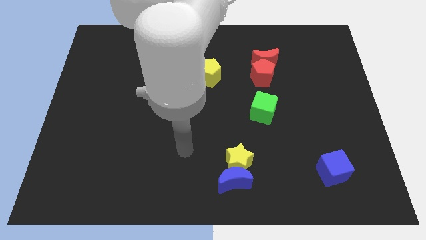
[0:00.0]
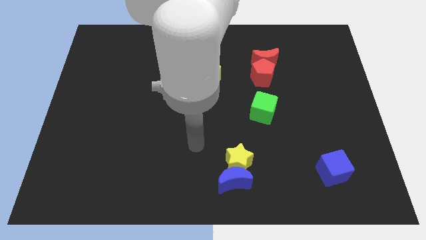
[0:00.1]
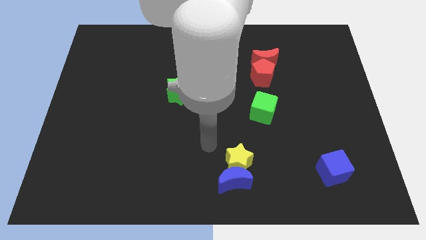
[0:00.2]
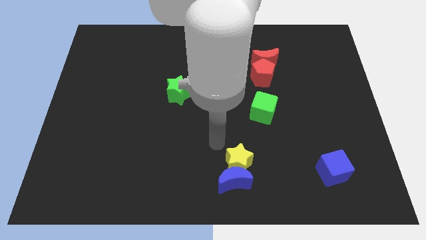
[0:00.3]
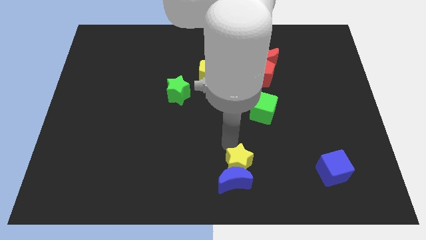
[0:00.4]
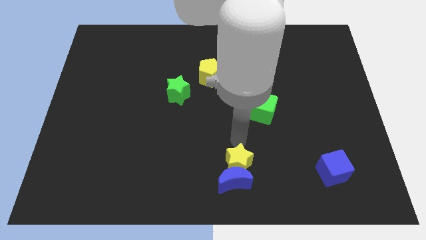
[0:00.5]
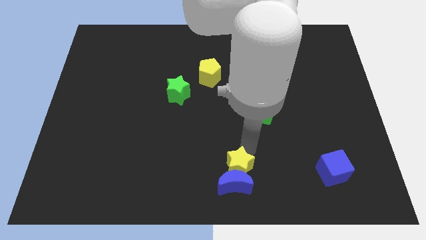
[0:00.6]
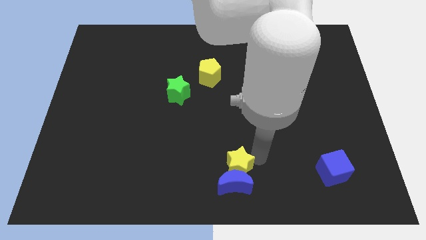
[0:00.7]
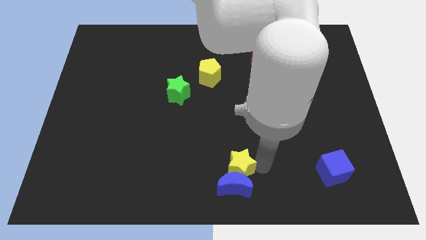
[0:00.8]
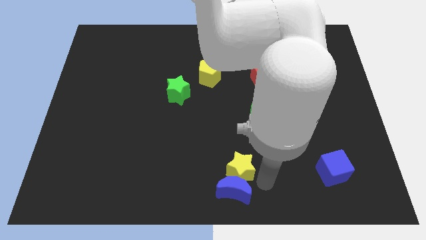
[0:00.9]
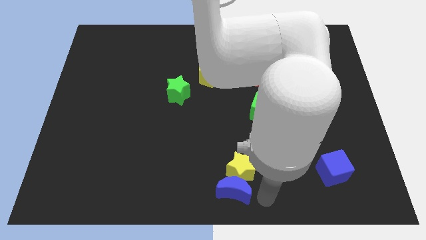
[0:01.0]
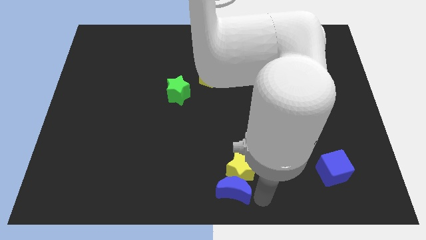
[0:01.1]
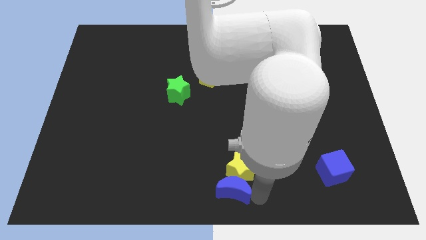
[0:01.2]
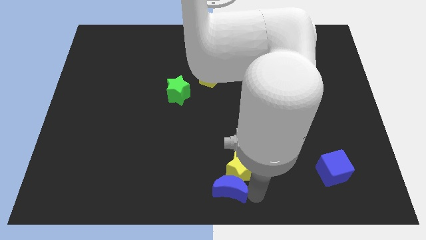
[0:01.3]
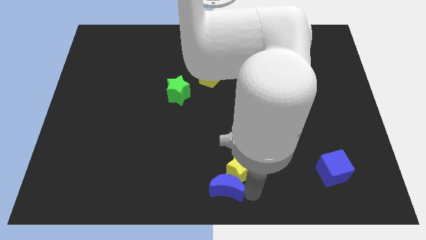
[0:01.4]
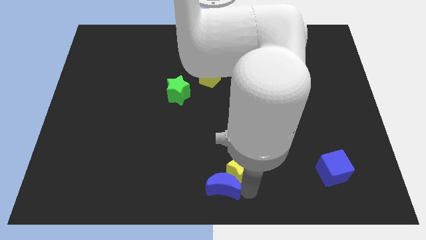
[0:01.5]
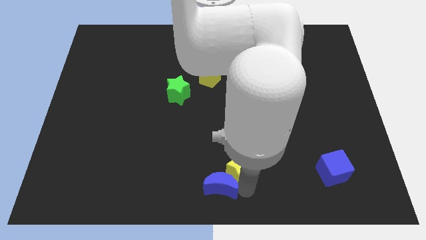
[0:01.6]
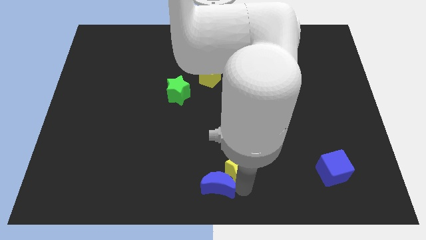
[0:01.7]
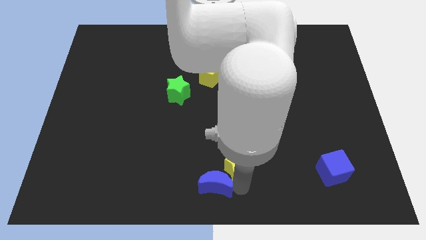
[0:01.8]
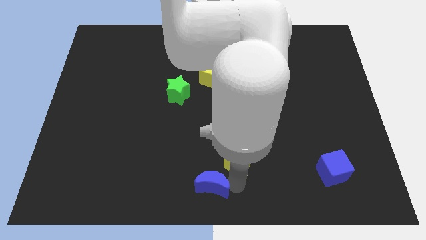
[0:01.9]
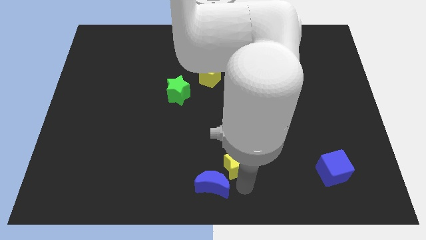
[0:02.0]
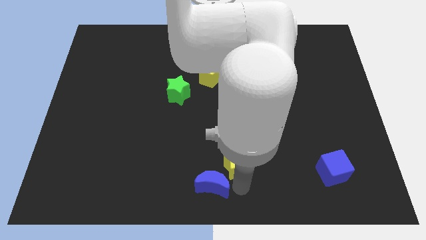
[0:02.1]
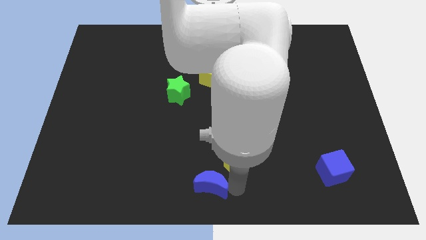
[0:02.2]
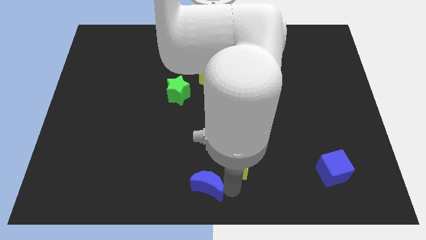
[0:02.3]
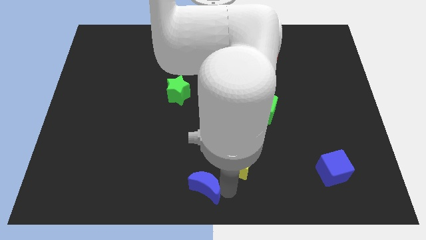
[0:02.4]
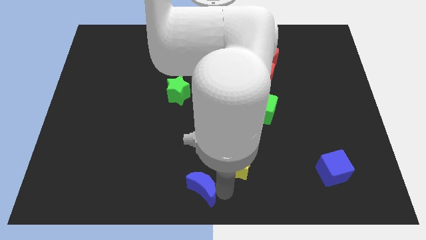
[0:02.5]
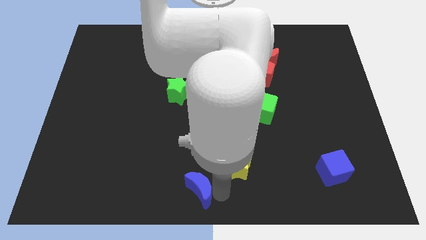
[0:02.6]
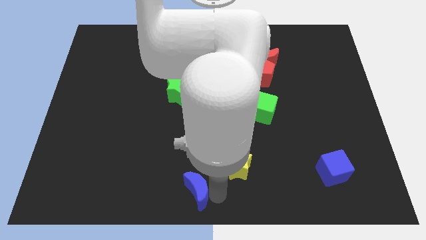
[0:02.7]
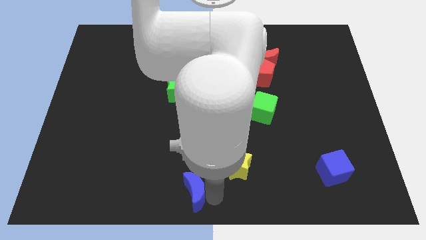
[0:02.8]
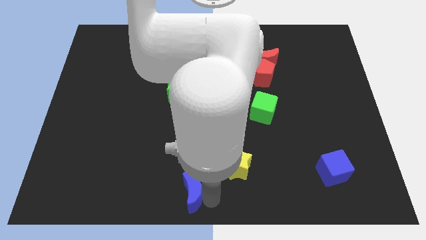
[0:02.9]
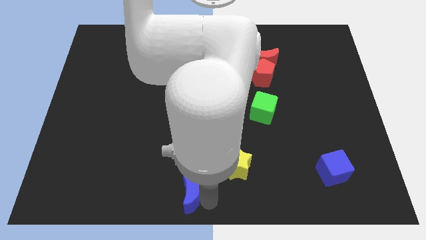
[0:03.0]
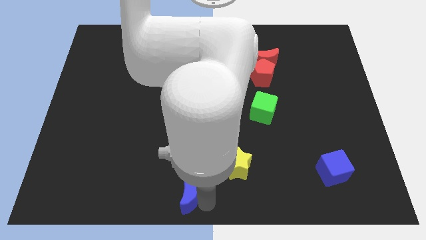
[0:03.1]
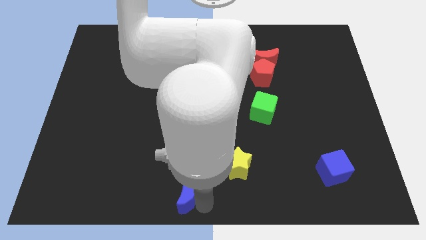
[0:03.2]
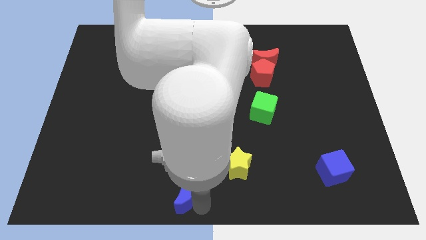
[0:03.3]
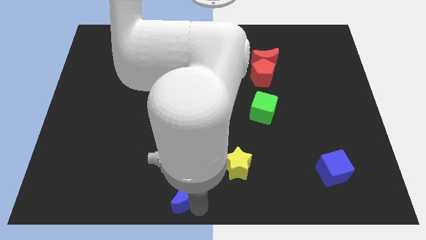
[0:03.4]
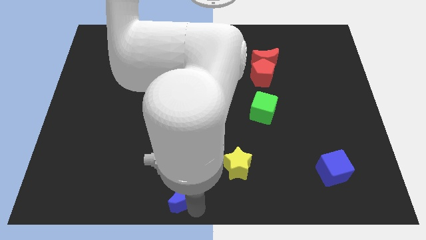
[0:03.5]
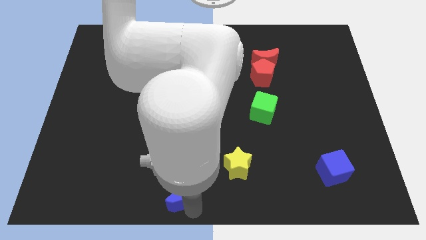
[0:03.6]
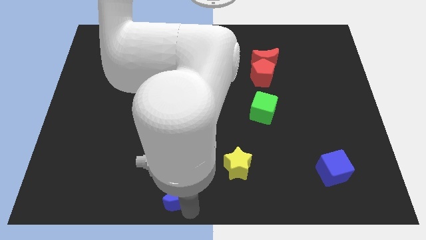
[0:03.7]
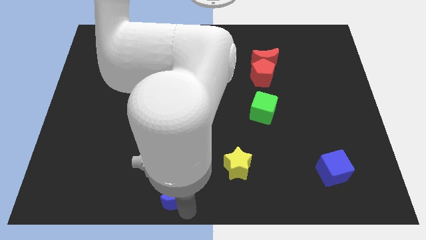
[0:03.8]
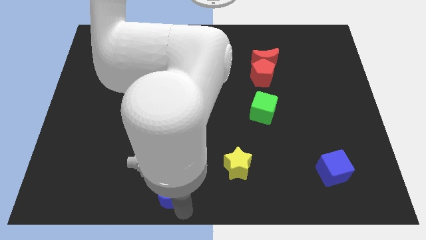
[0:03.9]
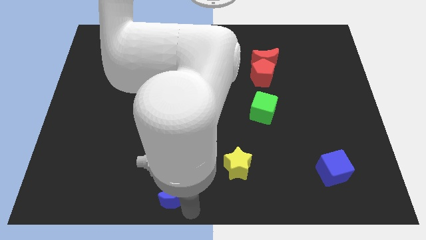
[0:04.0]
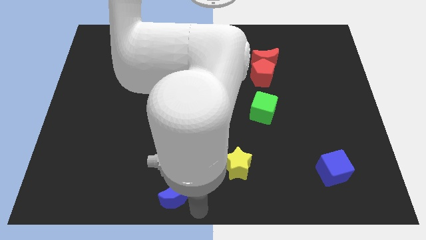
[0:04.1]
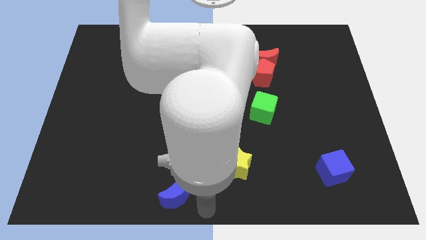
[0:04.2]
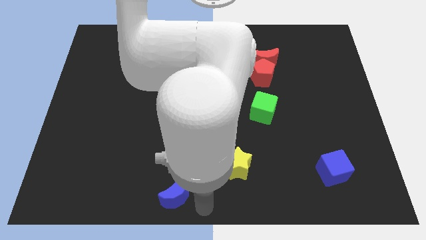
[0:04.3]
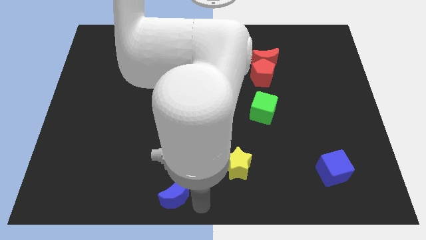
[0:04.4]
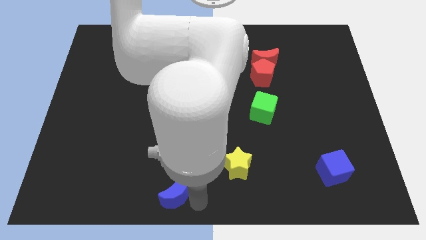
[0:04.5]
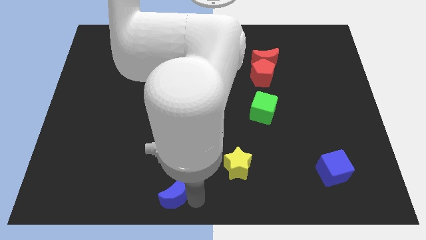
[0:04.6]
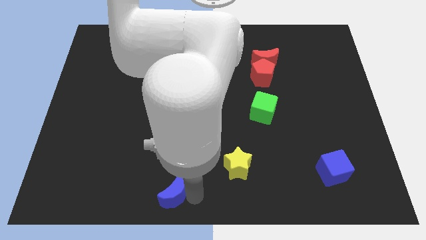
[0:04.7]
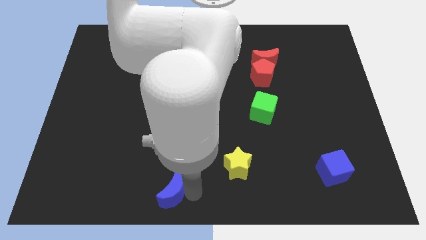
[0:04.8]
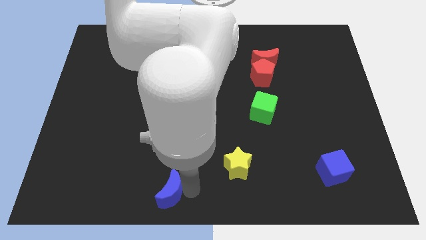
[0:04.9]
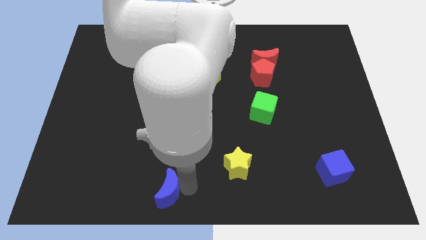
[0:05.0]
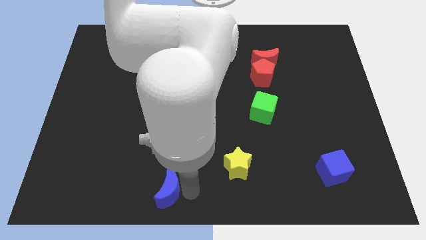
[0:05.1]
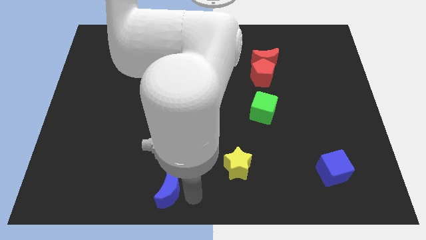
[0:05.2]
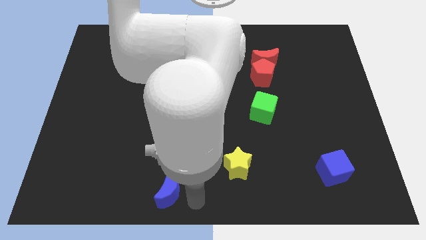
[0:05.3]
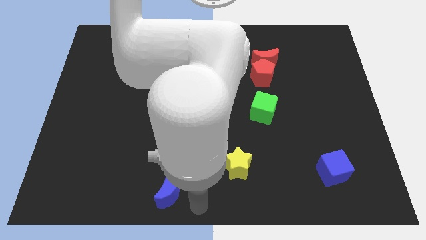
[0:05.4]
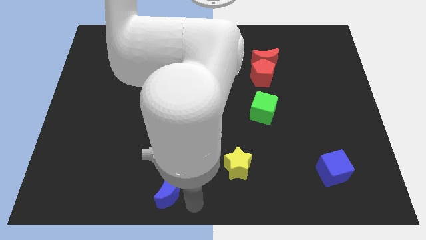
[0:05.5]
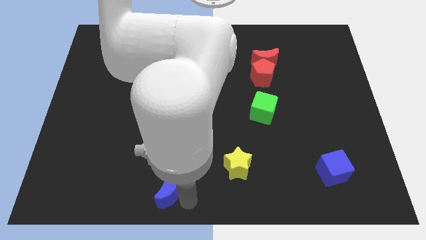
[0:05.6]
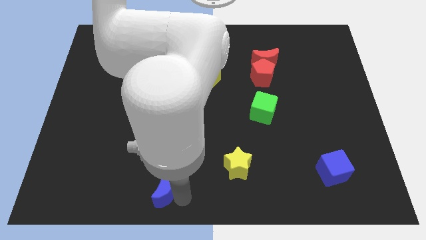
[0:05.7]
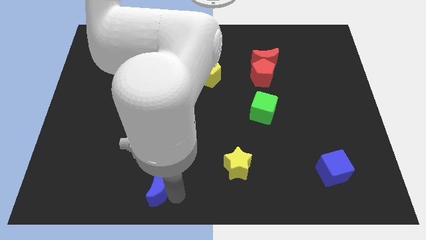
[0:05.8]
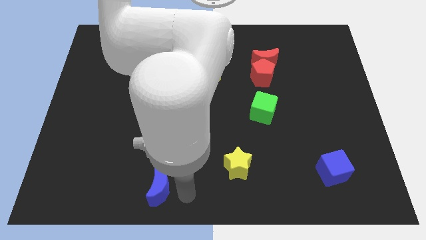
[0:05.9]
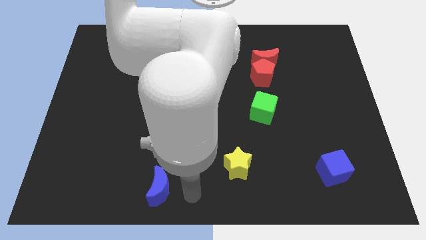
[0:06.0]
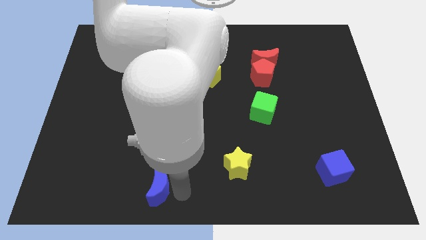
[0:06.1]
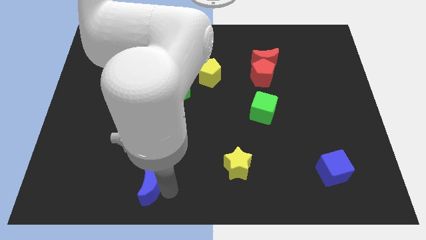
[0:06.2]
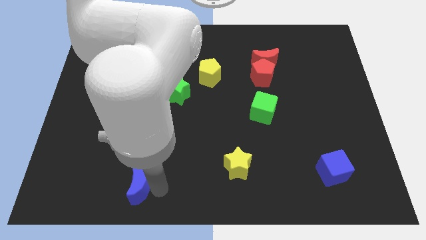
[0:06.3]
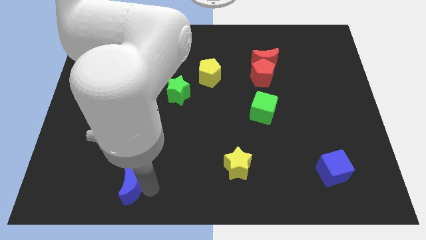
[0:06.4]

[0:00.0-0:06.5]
push the blue moon left

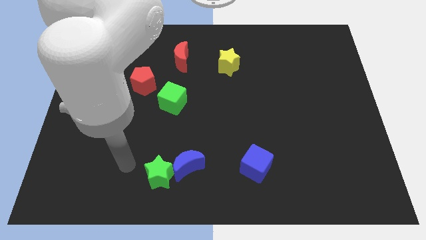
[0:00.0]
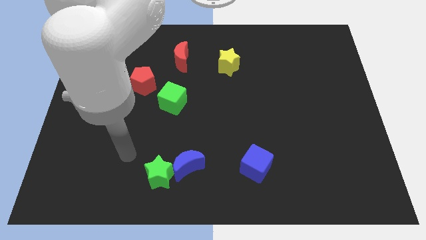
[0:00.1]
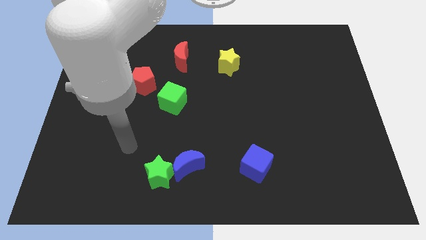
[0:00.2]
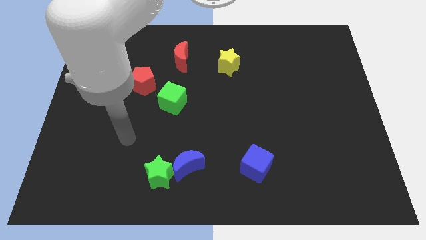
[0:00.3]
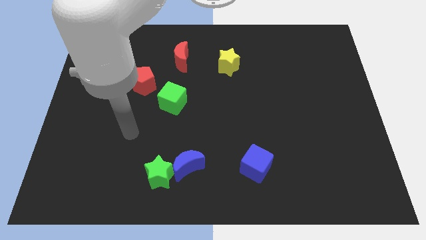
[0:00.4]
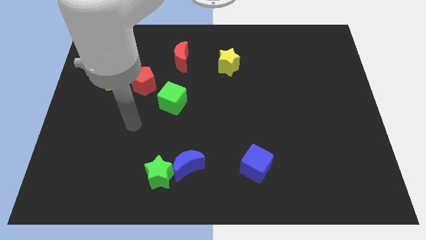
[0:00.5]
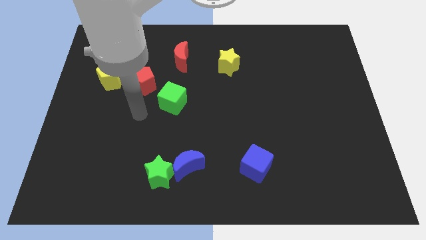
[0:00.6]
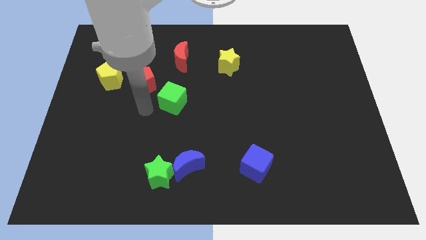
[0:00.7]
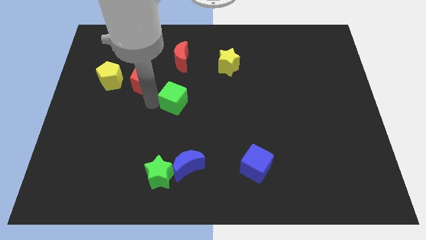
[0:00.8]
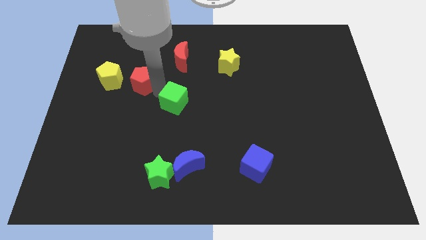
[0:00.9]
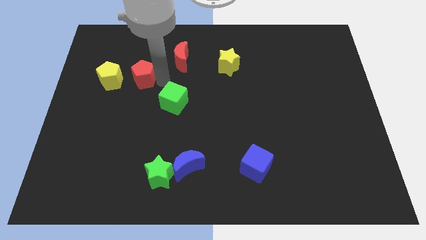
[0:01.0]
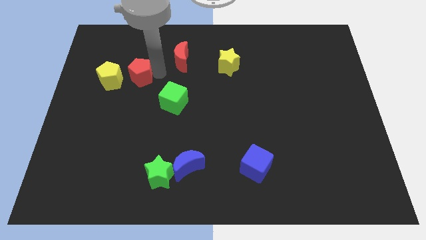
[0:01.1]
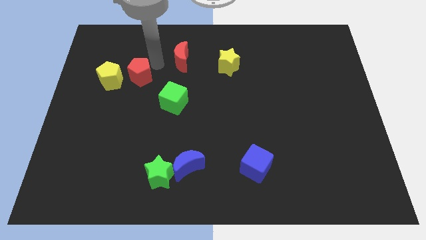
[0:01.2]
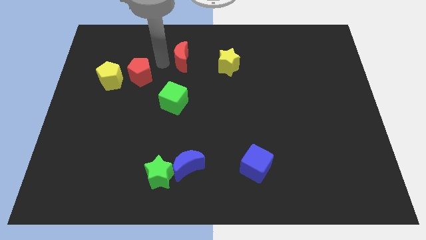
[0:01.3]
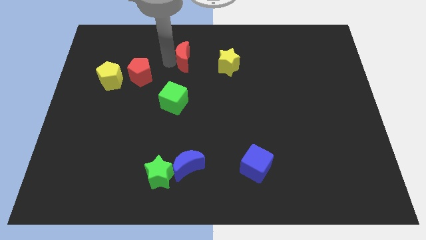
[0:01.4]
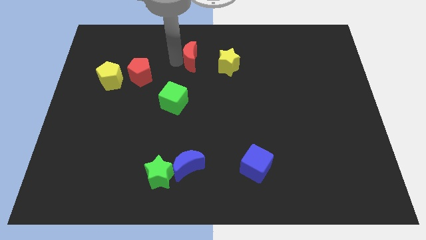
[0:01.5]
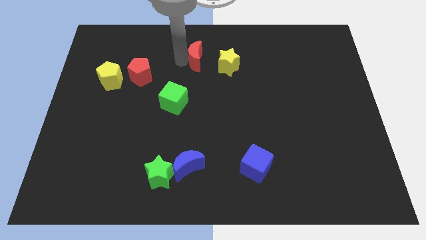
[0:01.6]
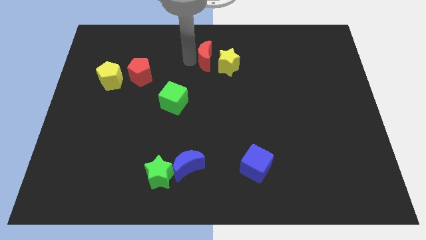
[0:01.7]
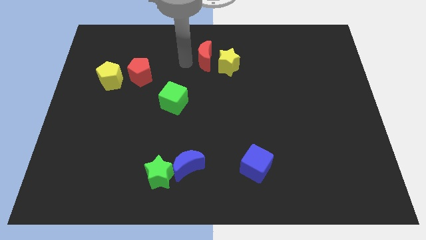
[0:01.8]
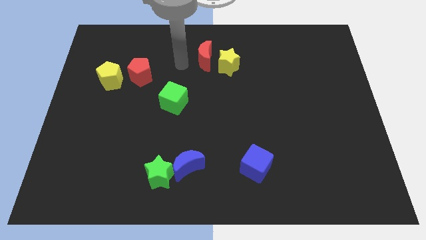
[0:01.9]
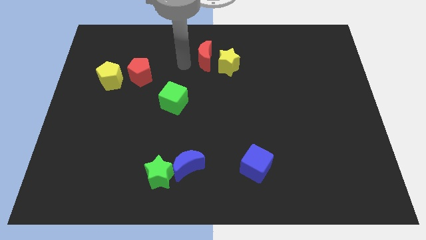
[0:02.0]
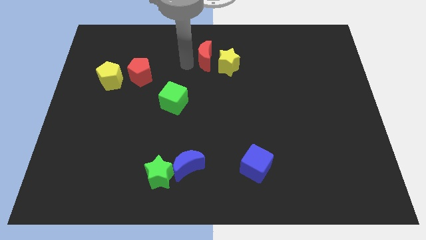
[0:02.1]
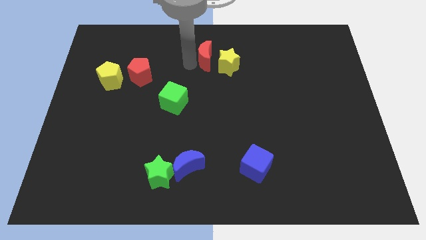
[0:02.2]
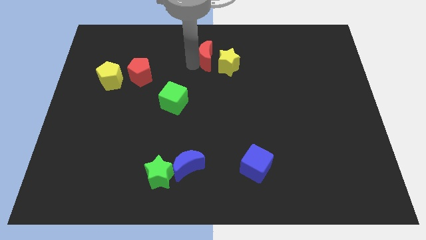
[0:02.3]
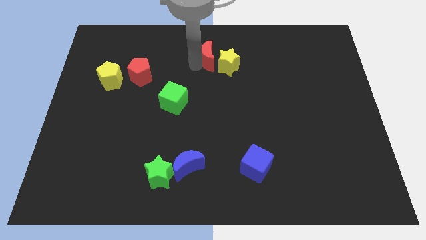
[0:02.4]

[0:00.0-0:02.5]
slide the red moon a little to the right
